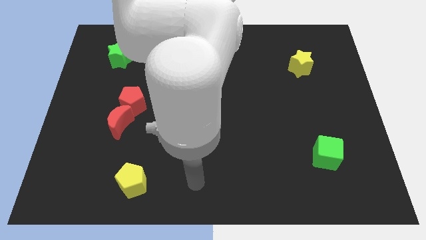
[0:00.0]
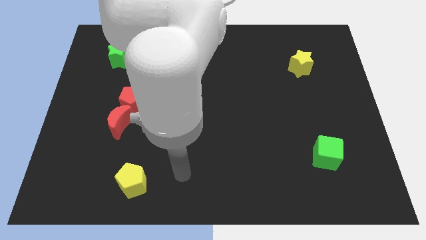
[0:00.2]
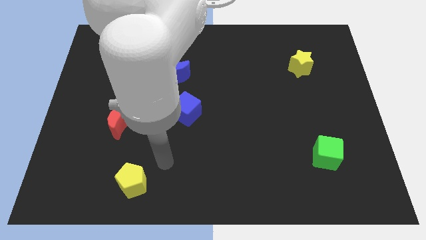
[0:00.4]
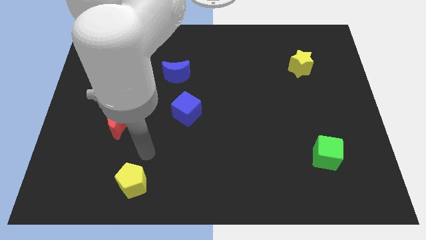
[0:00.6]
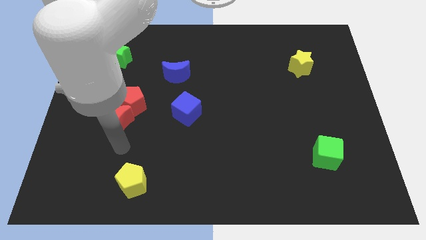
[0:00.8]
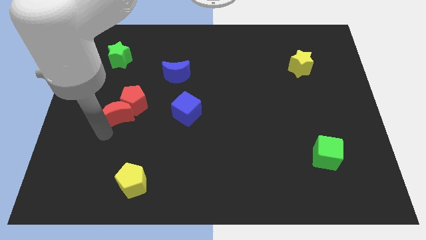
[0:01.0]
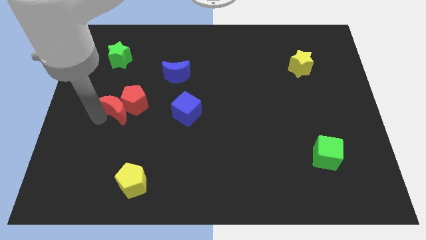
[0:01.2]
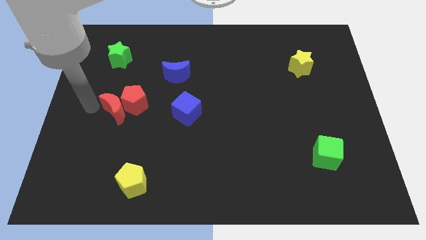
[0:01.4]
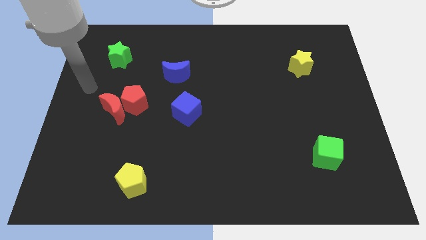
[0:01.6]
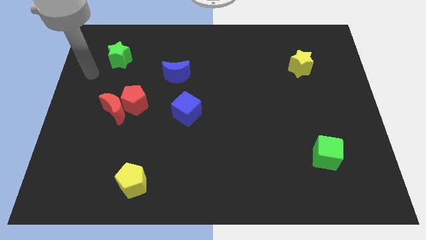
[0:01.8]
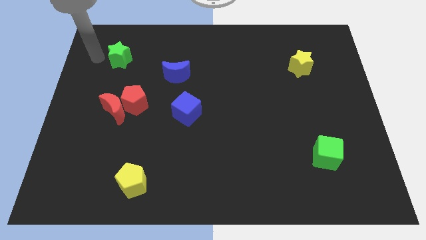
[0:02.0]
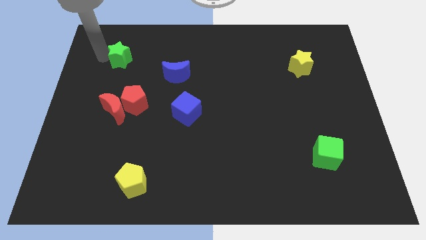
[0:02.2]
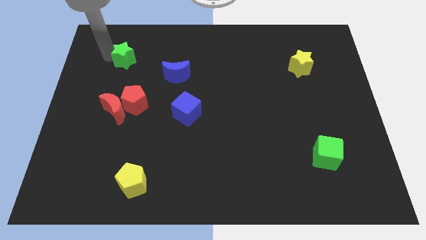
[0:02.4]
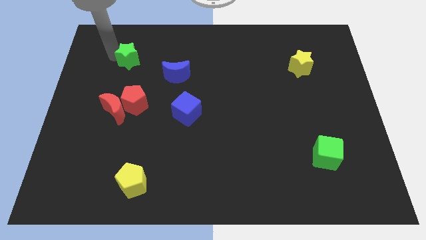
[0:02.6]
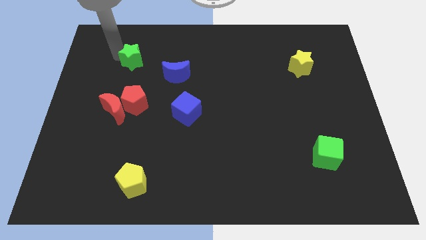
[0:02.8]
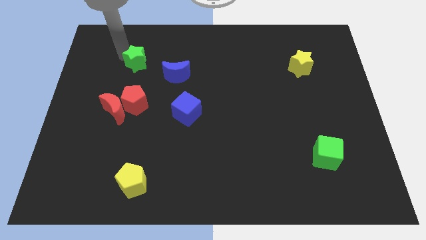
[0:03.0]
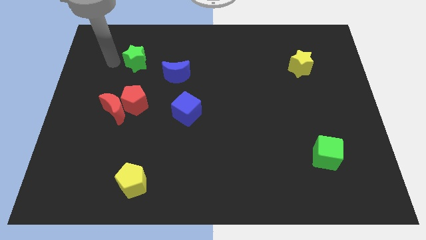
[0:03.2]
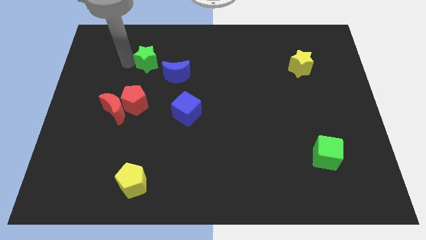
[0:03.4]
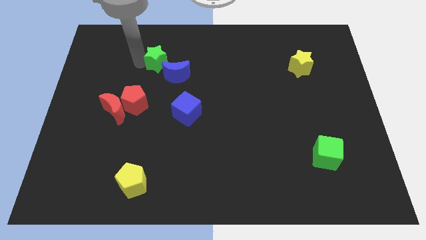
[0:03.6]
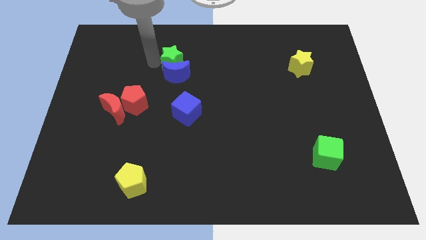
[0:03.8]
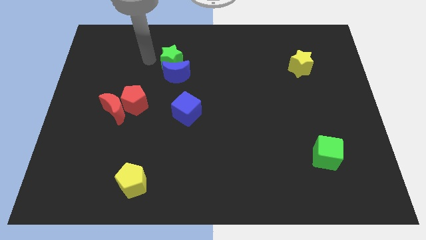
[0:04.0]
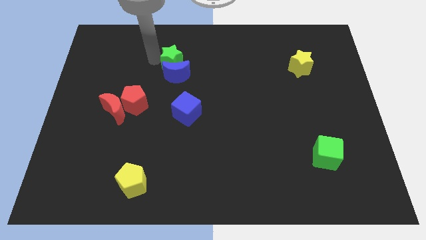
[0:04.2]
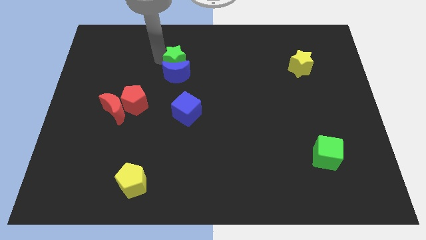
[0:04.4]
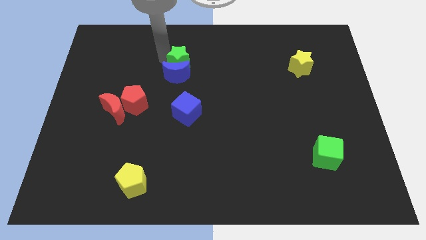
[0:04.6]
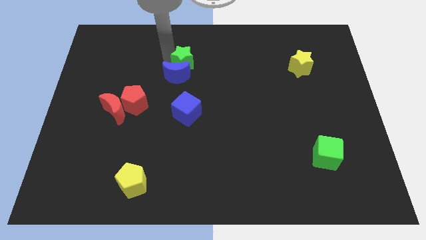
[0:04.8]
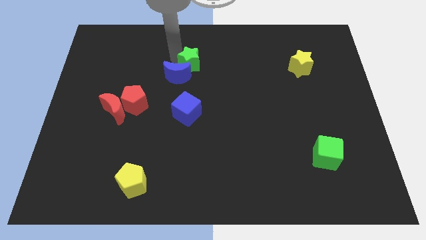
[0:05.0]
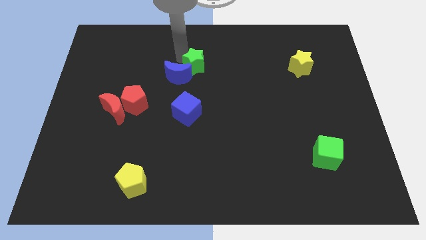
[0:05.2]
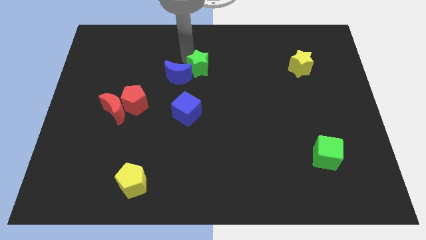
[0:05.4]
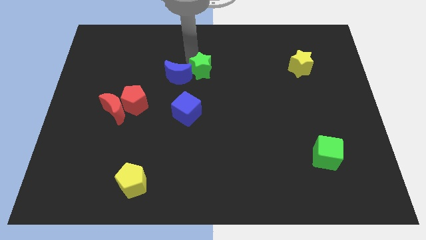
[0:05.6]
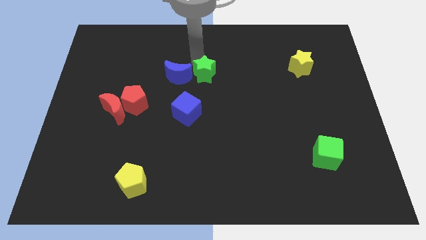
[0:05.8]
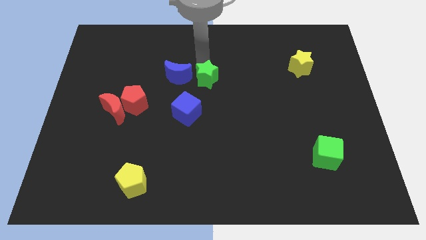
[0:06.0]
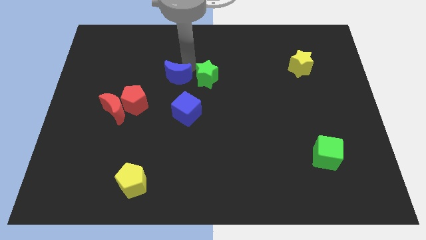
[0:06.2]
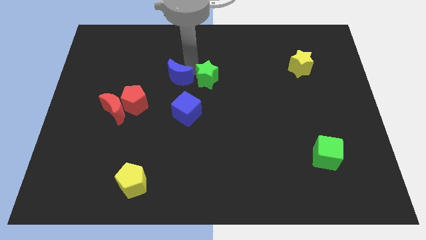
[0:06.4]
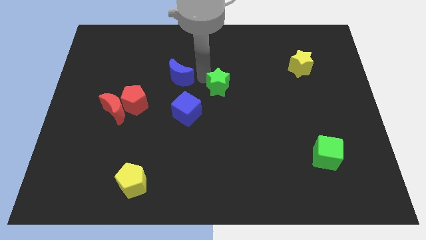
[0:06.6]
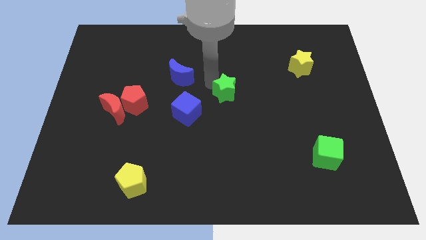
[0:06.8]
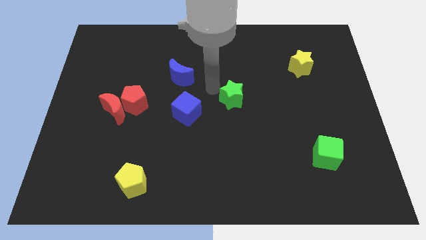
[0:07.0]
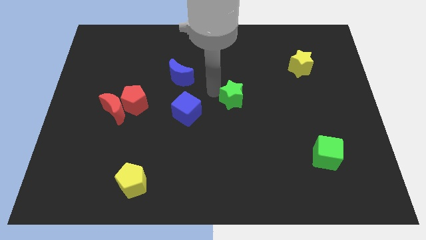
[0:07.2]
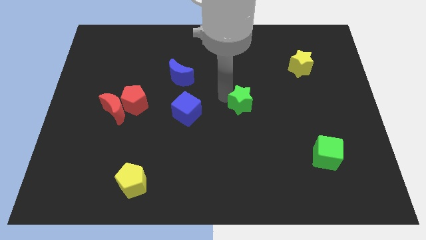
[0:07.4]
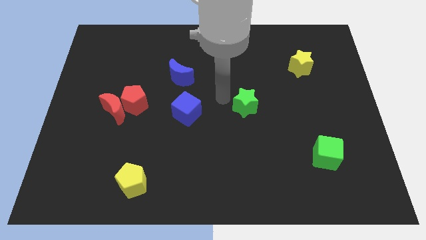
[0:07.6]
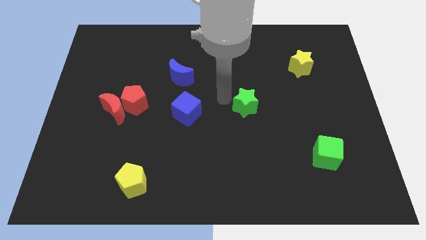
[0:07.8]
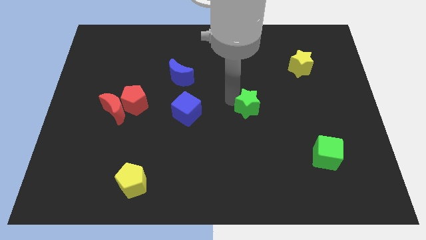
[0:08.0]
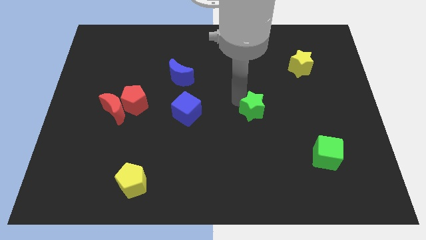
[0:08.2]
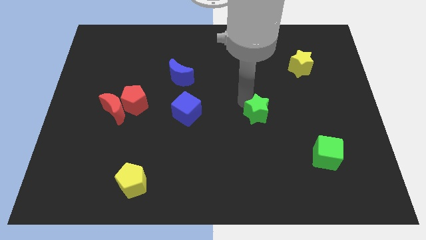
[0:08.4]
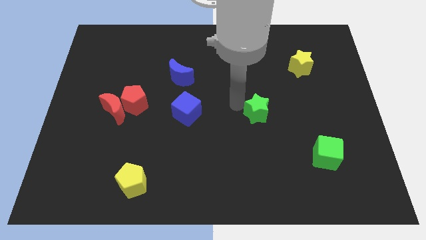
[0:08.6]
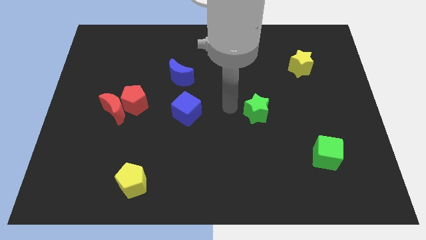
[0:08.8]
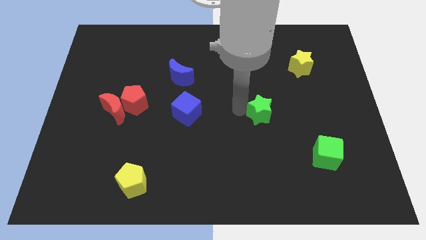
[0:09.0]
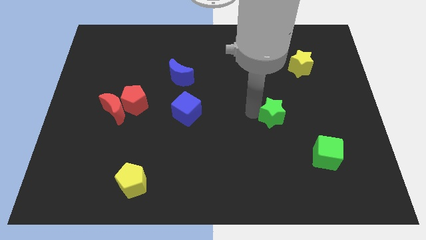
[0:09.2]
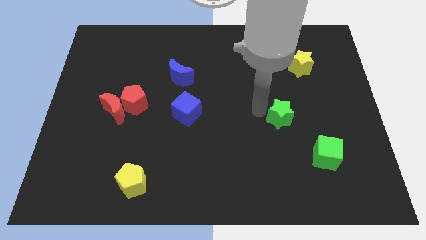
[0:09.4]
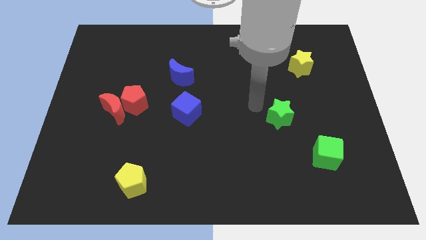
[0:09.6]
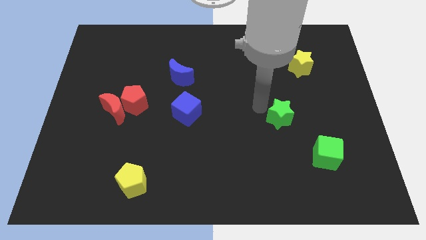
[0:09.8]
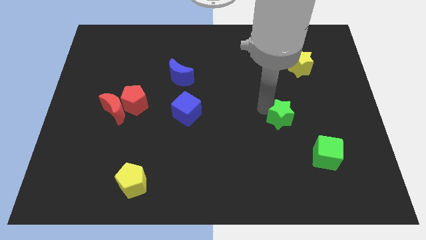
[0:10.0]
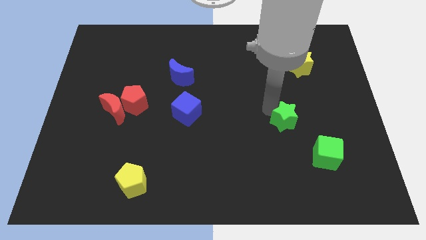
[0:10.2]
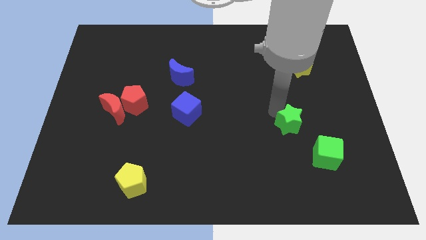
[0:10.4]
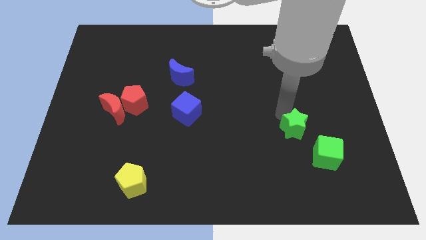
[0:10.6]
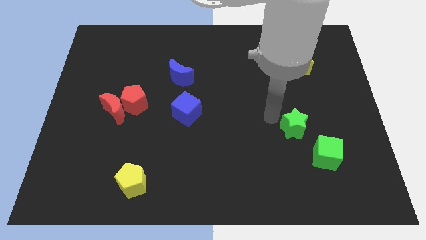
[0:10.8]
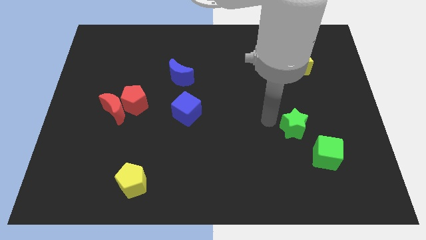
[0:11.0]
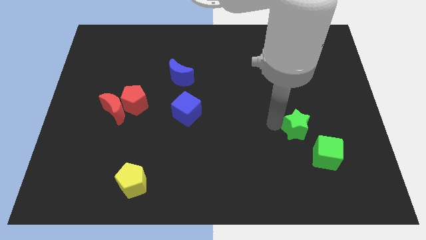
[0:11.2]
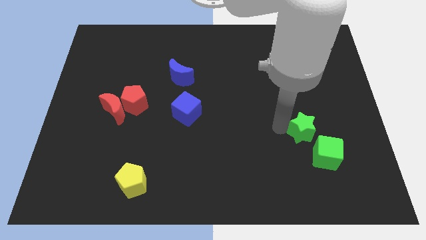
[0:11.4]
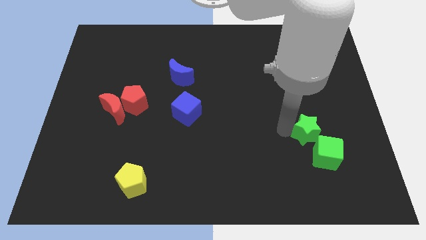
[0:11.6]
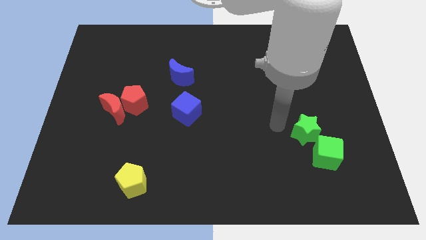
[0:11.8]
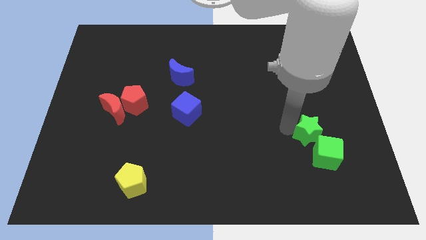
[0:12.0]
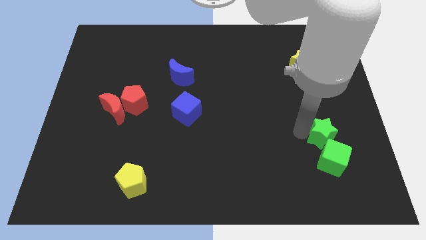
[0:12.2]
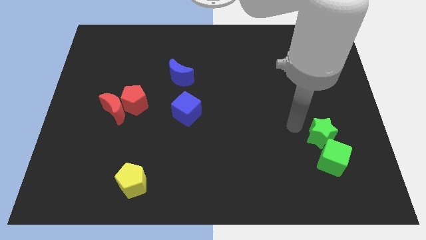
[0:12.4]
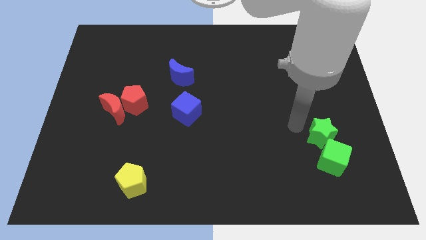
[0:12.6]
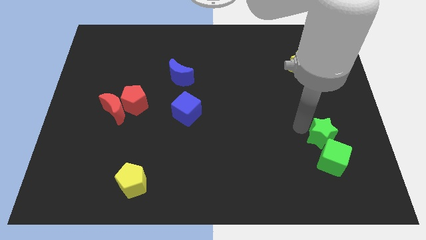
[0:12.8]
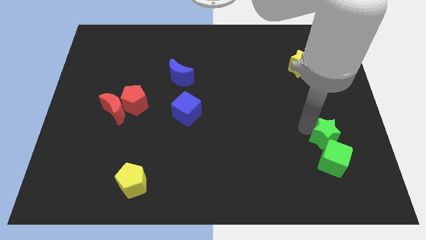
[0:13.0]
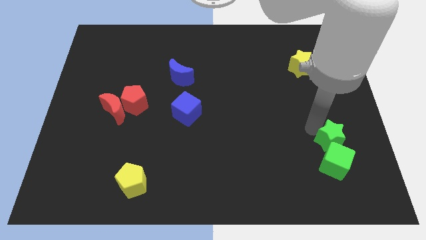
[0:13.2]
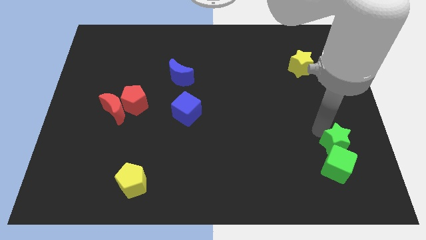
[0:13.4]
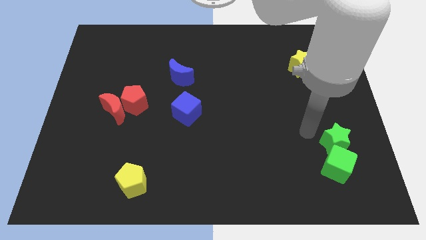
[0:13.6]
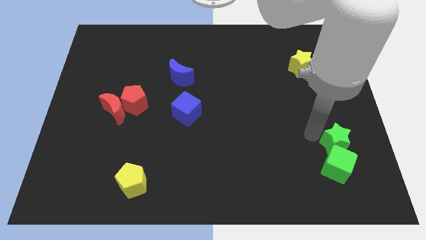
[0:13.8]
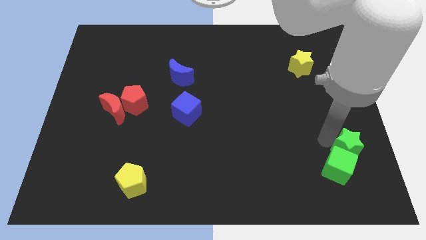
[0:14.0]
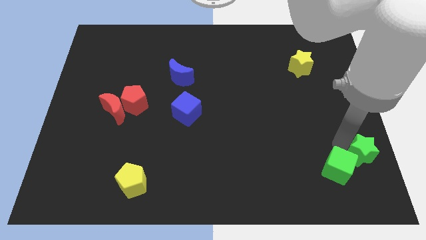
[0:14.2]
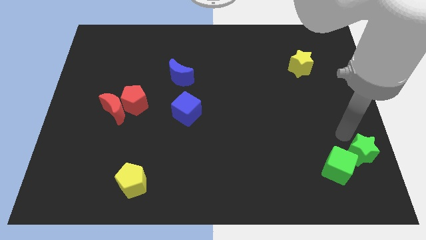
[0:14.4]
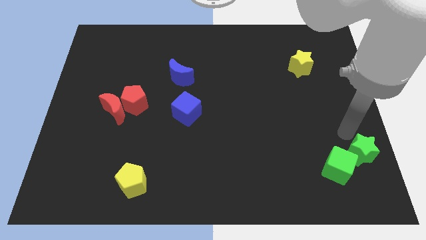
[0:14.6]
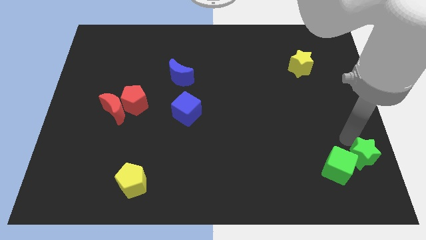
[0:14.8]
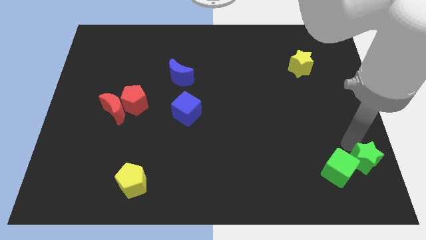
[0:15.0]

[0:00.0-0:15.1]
push the green star to the bottom right of the board
